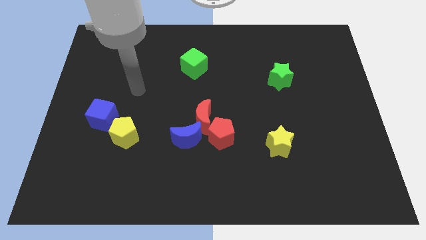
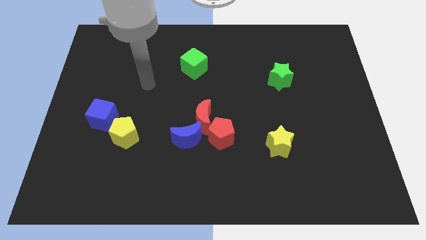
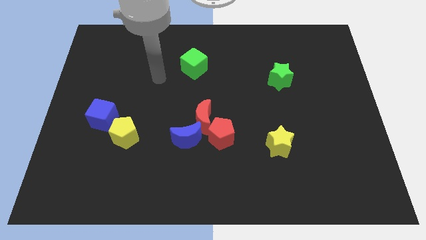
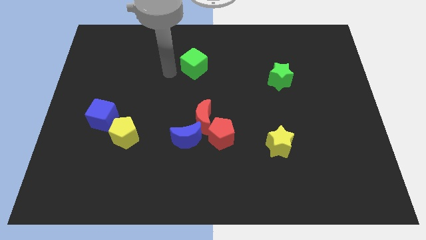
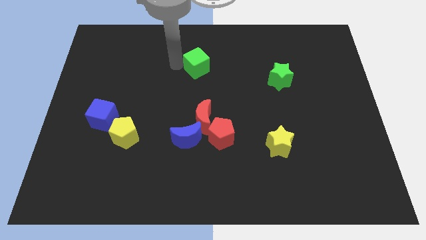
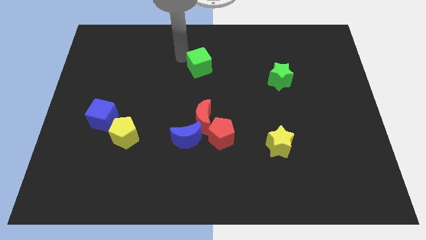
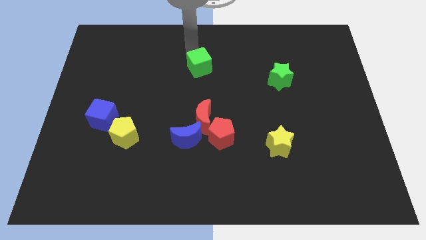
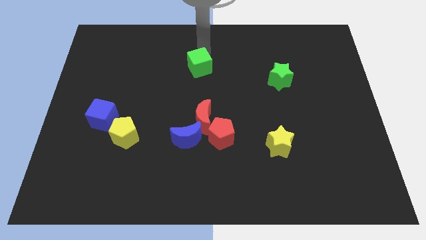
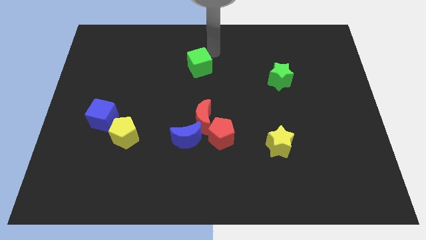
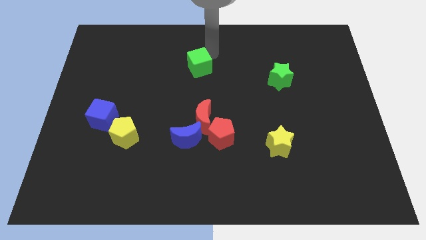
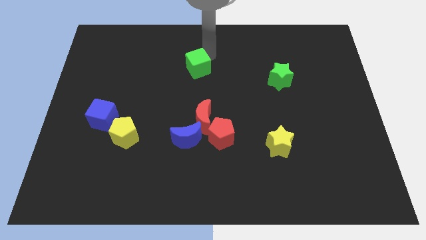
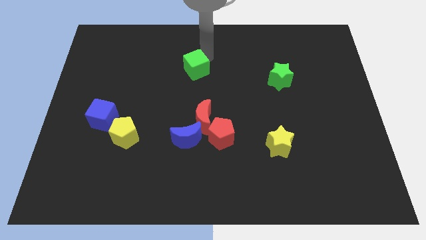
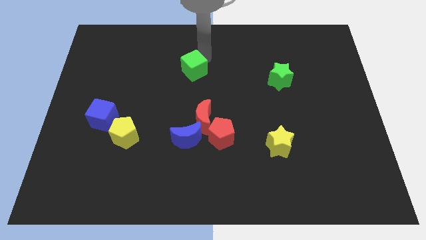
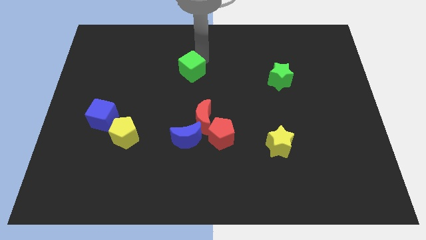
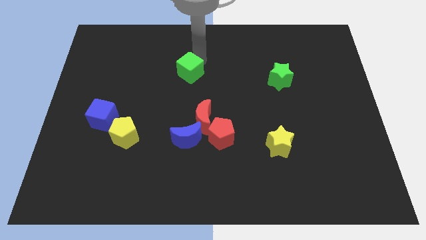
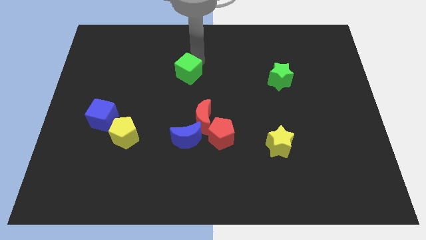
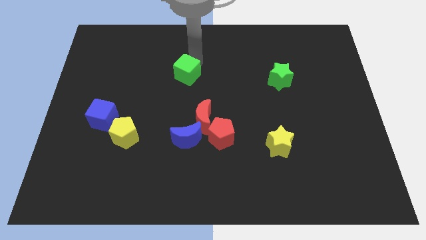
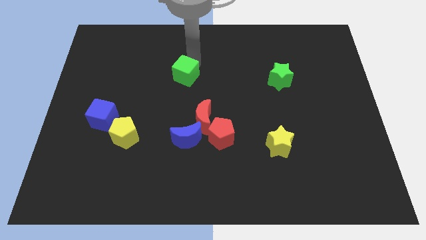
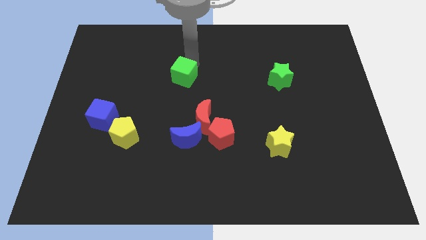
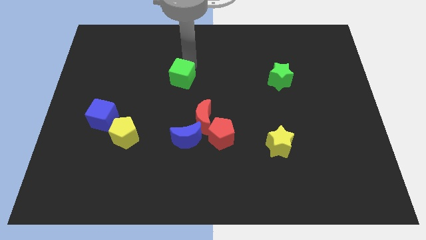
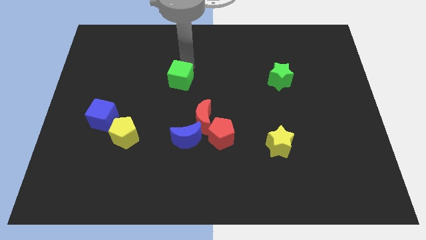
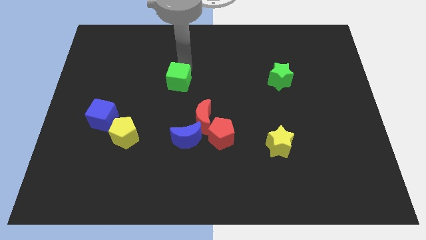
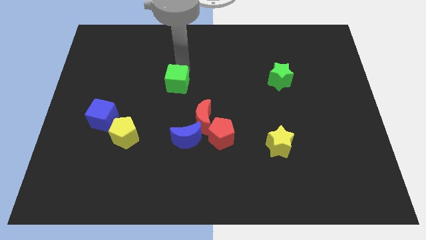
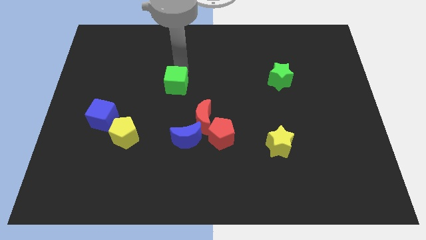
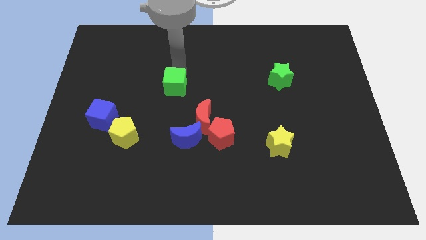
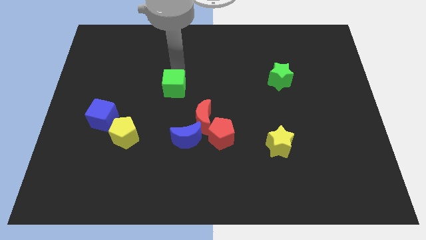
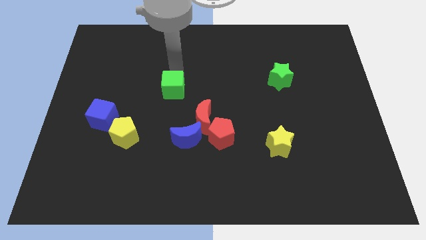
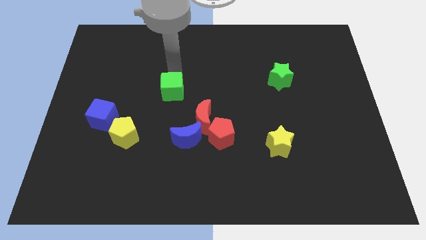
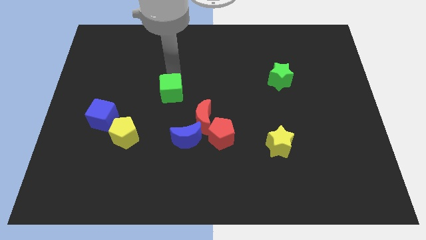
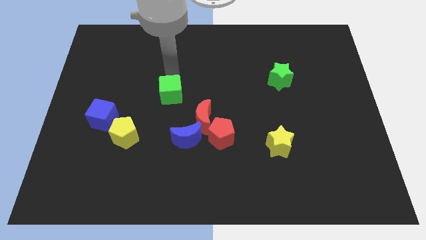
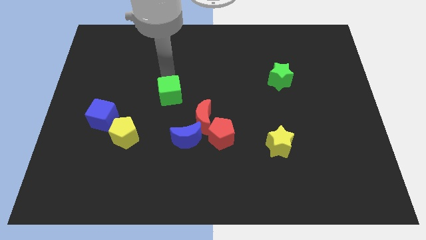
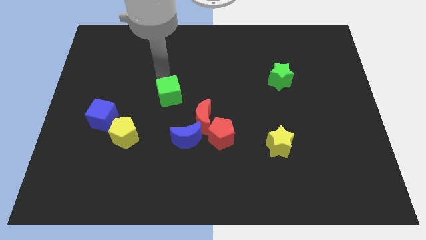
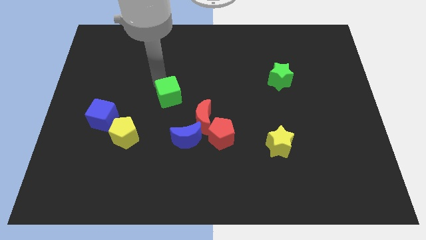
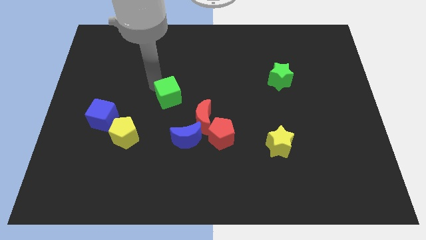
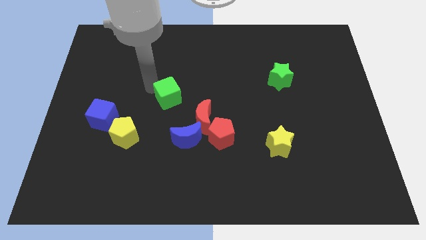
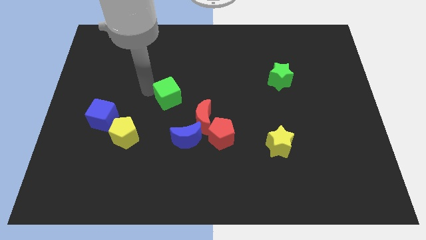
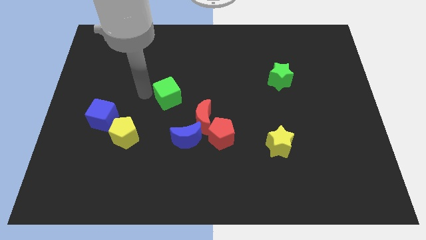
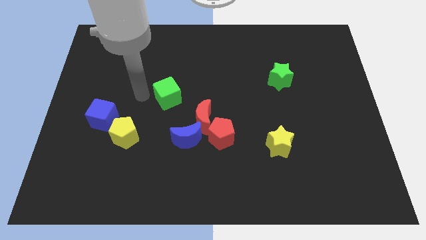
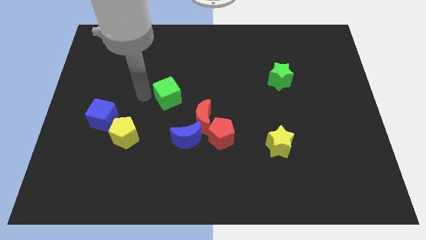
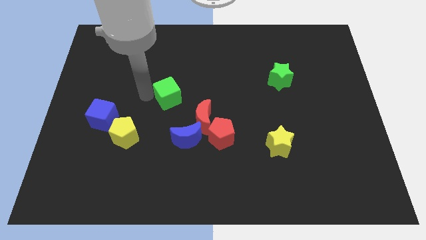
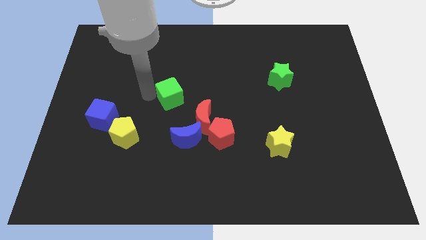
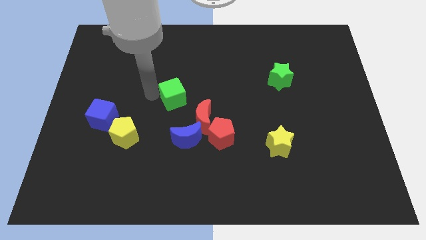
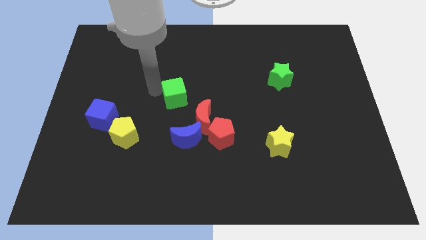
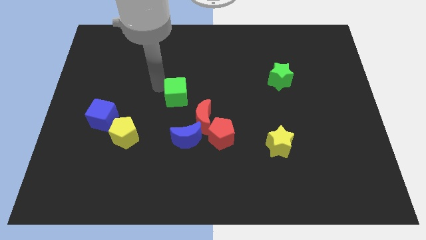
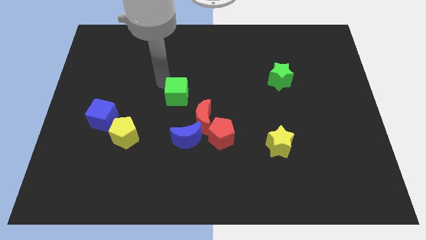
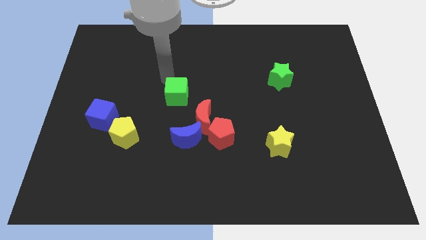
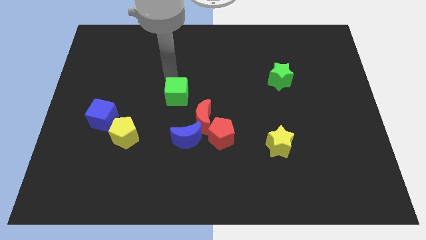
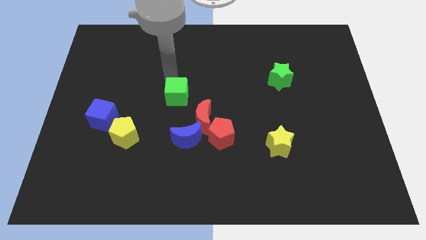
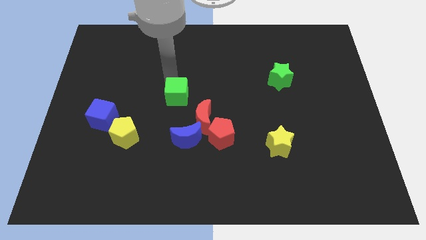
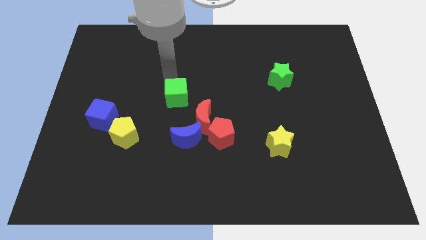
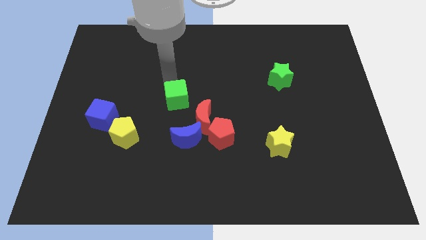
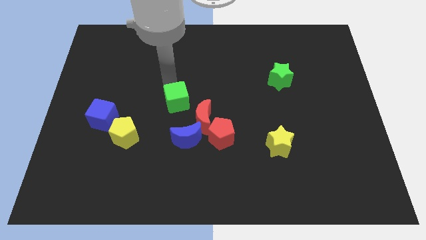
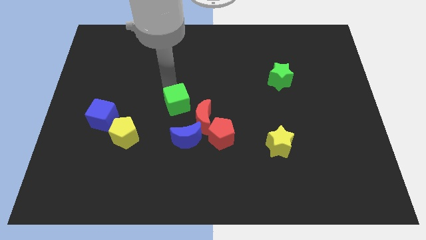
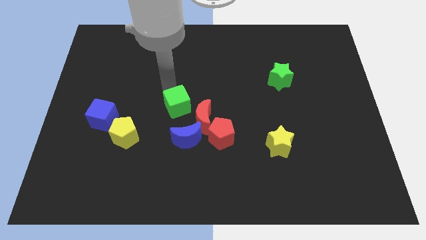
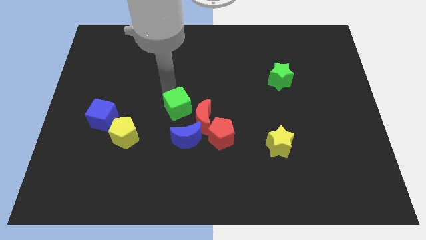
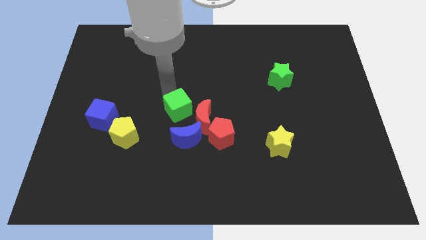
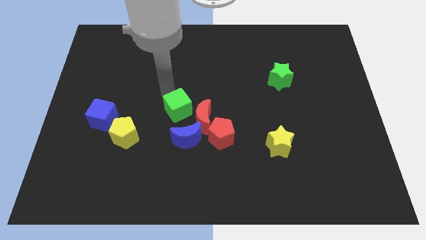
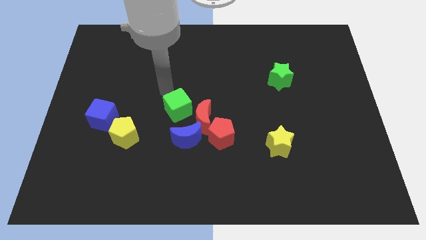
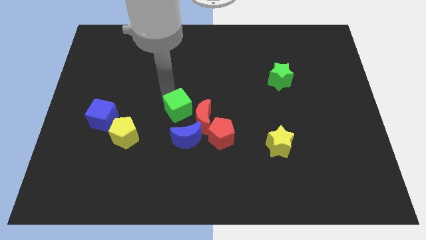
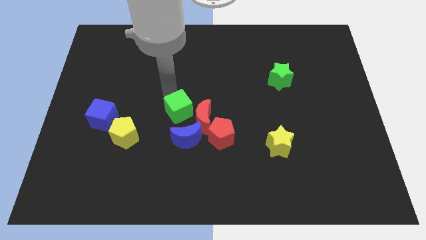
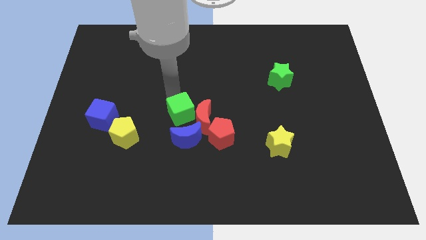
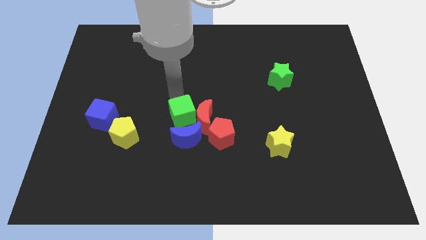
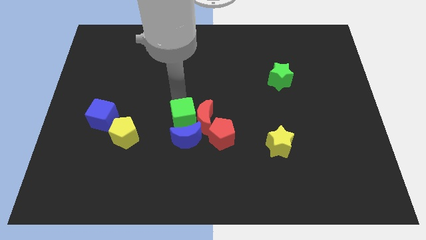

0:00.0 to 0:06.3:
move the green cube next to the blue moon

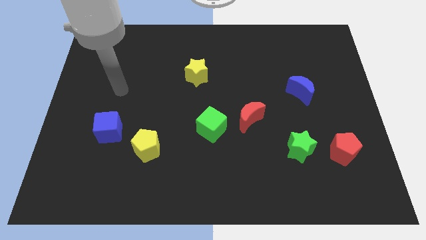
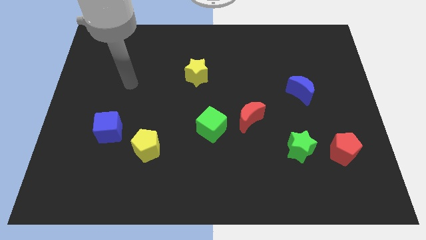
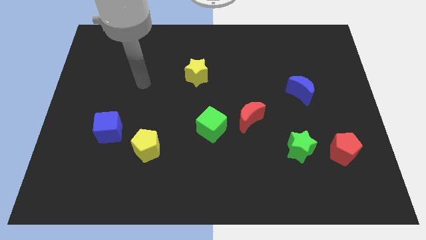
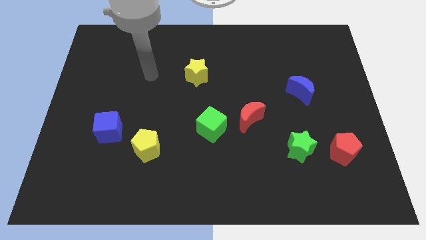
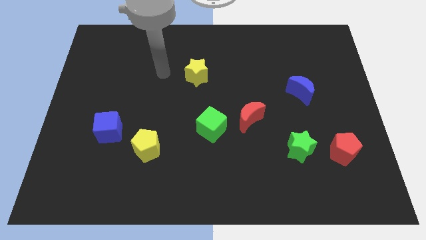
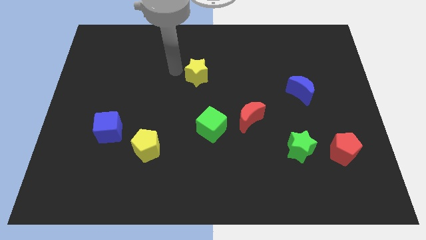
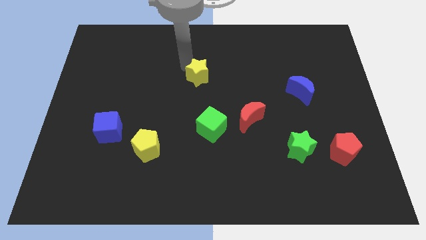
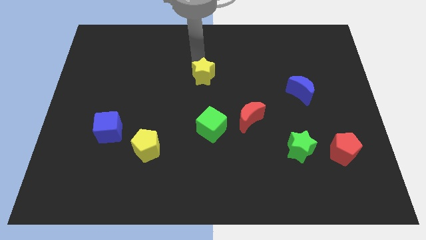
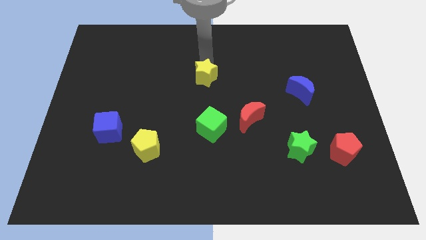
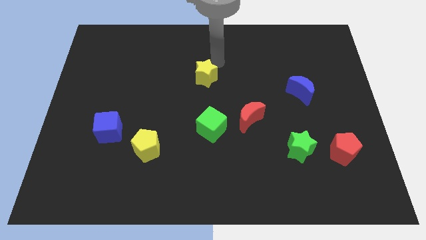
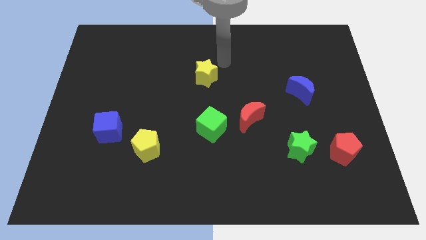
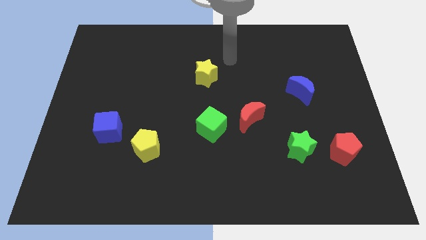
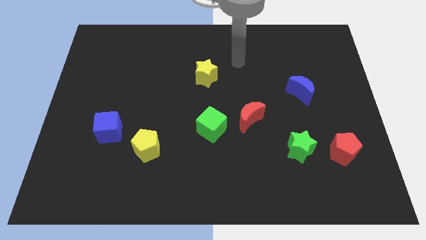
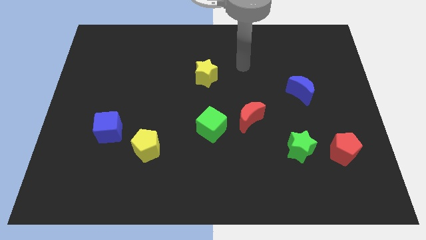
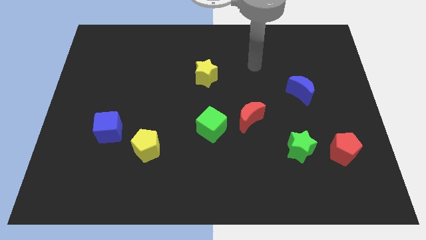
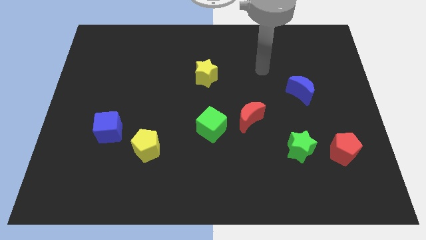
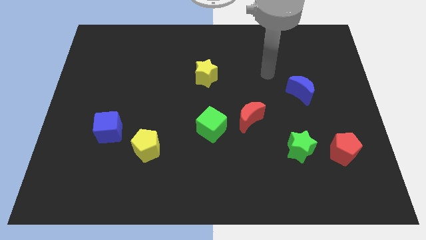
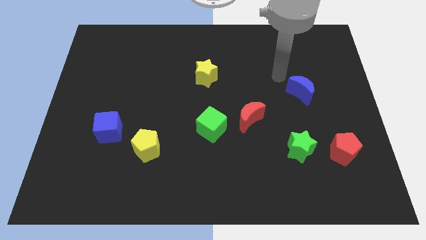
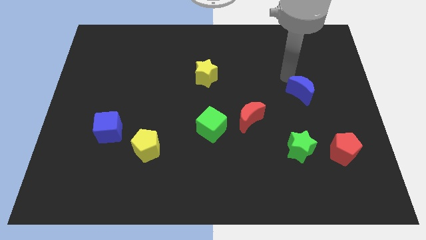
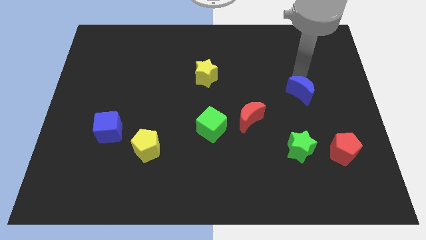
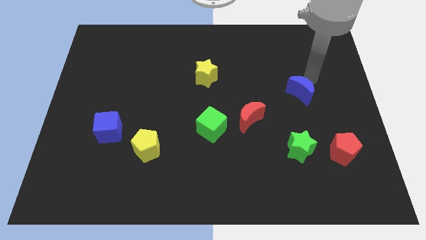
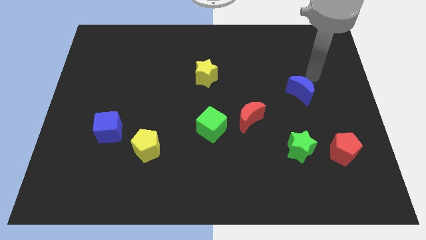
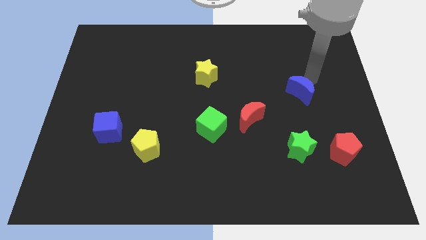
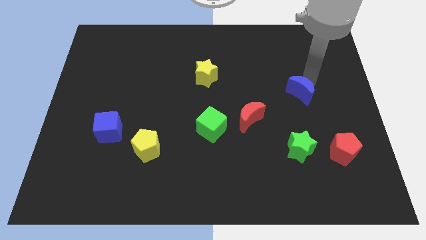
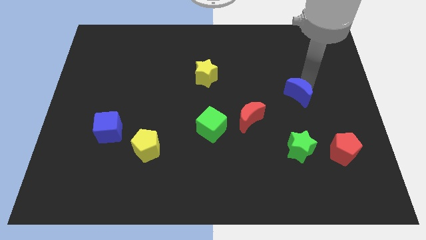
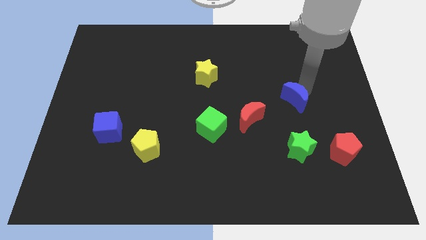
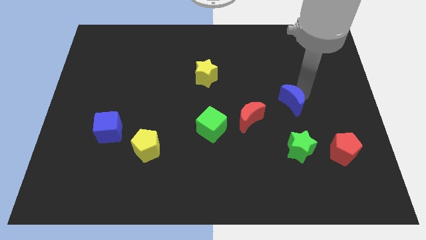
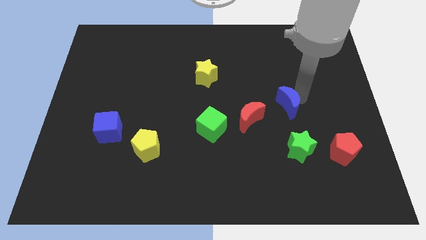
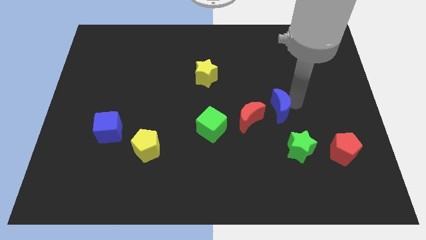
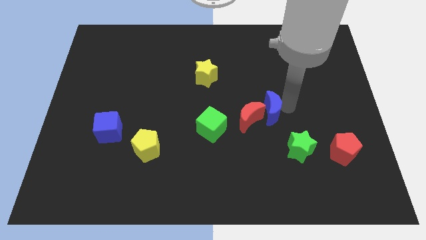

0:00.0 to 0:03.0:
put the blue moon towards the red moon
